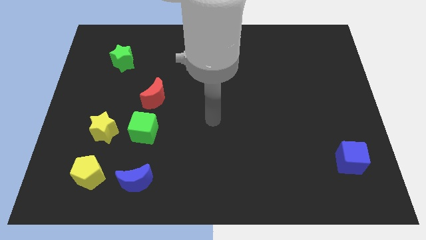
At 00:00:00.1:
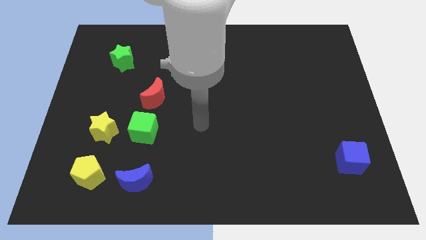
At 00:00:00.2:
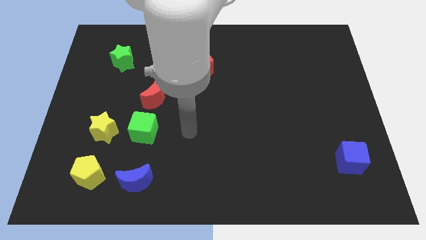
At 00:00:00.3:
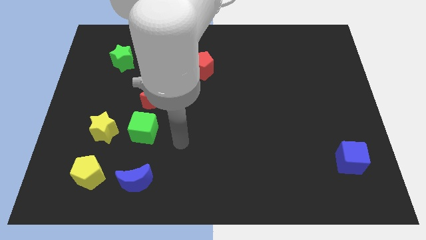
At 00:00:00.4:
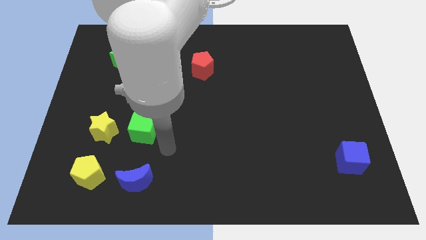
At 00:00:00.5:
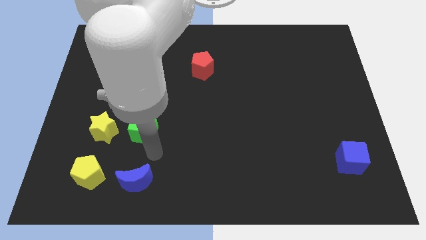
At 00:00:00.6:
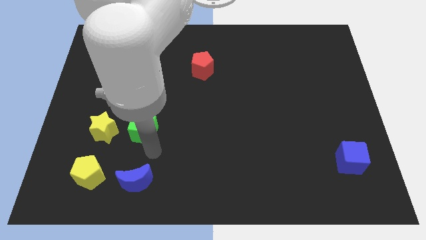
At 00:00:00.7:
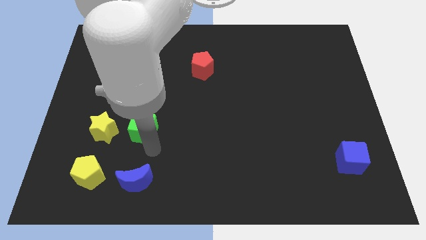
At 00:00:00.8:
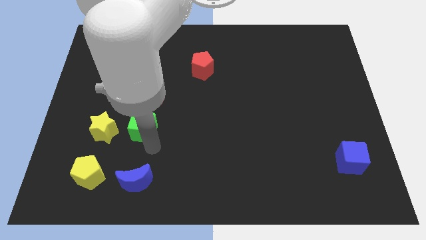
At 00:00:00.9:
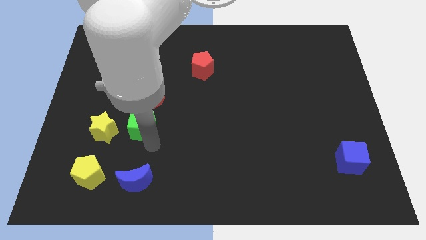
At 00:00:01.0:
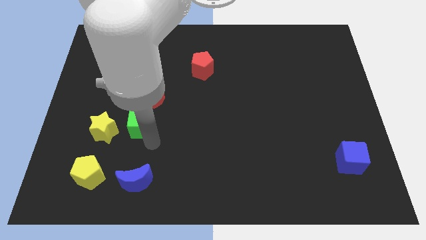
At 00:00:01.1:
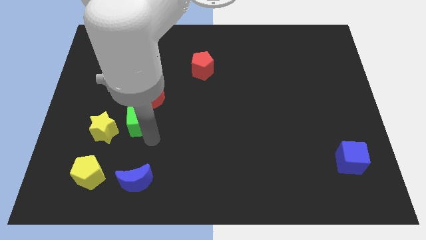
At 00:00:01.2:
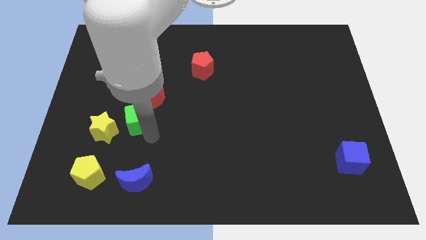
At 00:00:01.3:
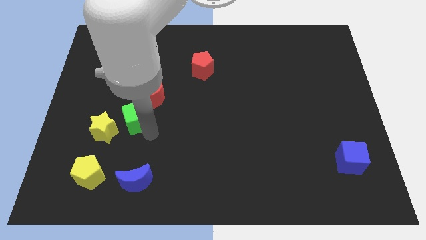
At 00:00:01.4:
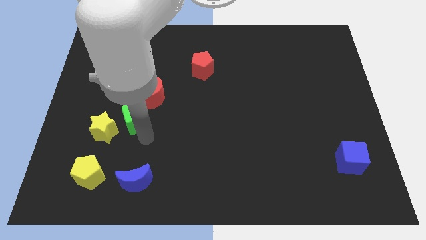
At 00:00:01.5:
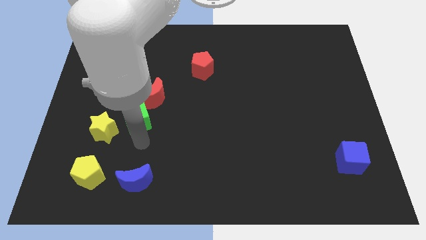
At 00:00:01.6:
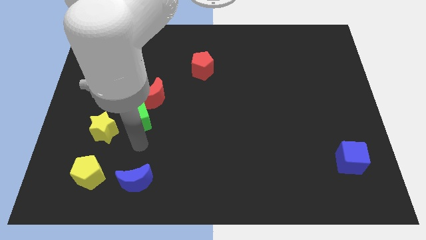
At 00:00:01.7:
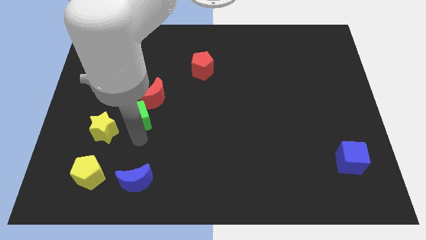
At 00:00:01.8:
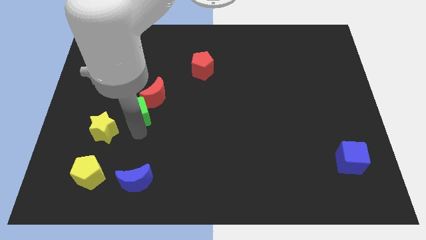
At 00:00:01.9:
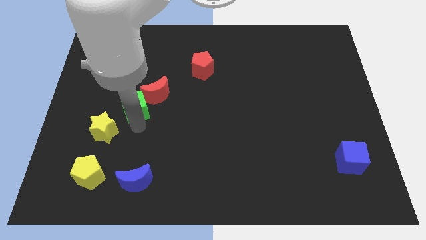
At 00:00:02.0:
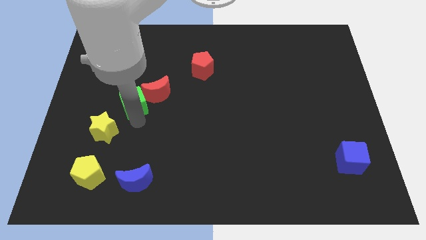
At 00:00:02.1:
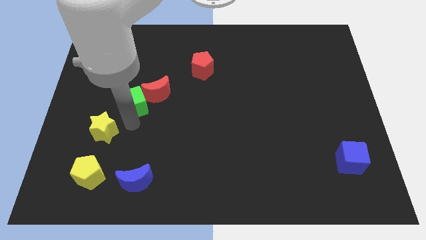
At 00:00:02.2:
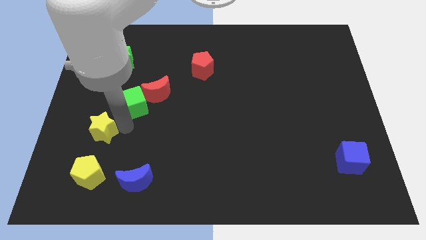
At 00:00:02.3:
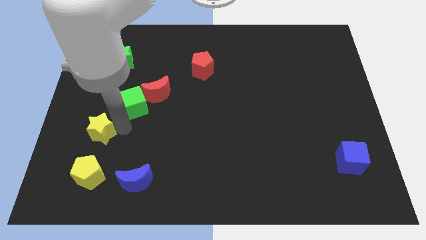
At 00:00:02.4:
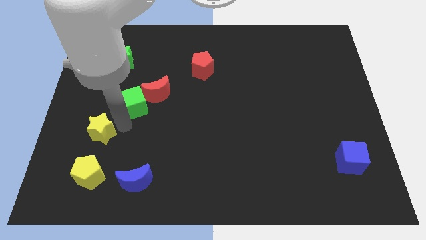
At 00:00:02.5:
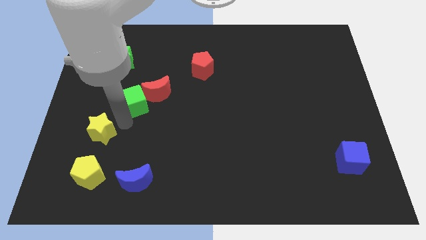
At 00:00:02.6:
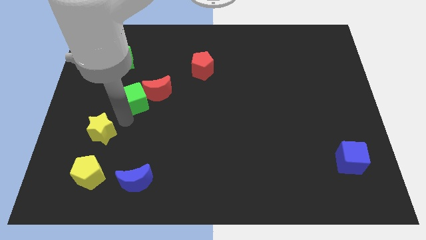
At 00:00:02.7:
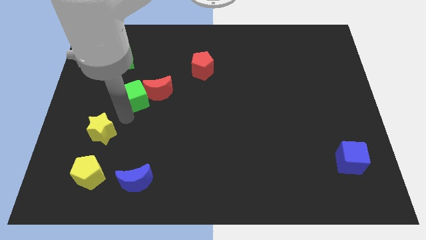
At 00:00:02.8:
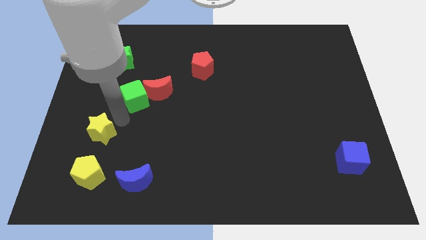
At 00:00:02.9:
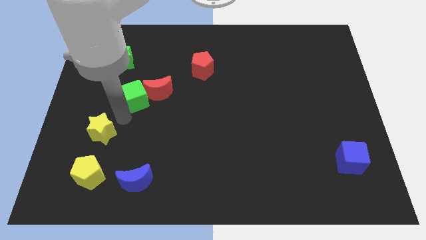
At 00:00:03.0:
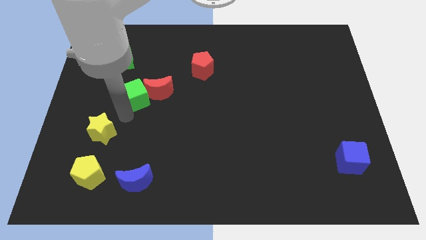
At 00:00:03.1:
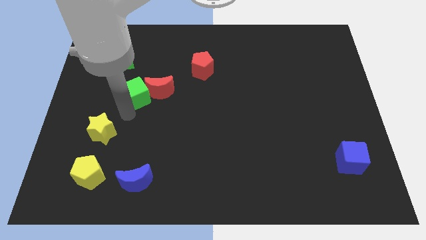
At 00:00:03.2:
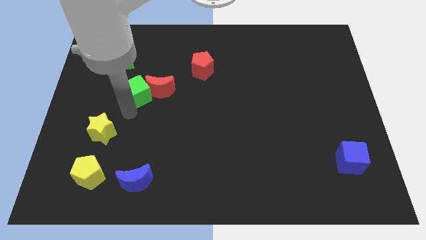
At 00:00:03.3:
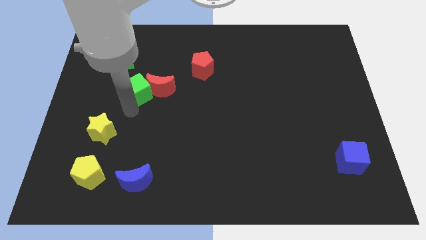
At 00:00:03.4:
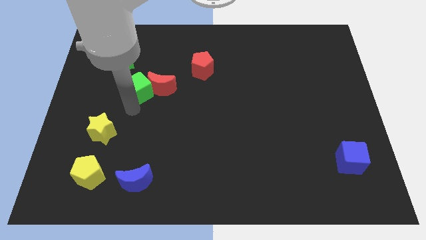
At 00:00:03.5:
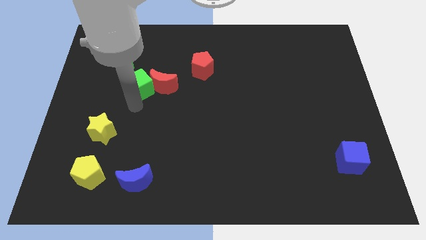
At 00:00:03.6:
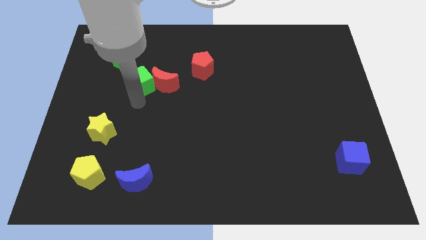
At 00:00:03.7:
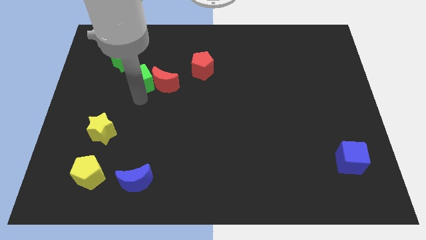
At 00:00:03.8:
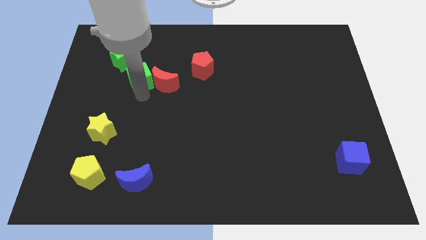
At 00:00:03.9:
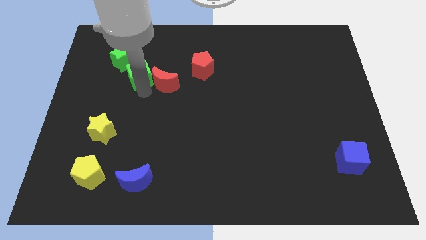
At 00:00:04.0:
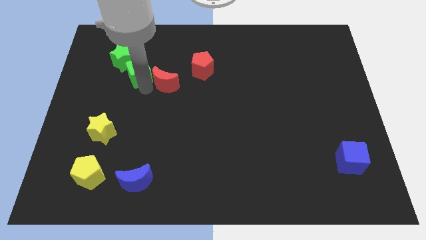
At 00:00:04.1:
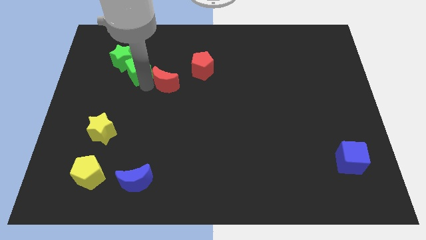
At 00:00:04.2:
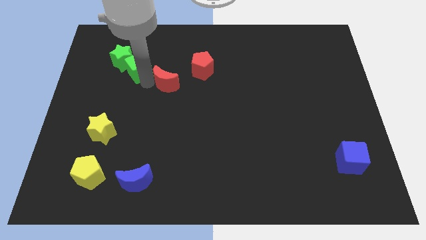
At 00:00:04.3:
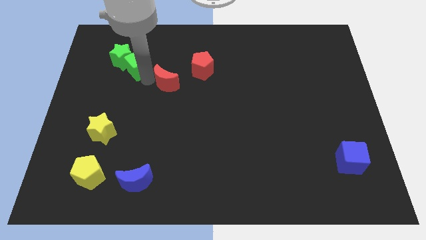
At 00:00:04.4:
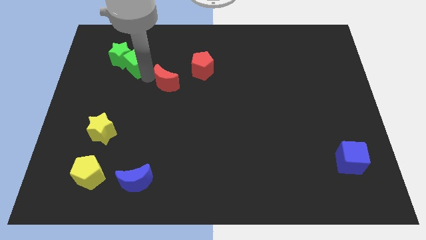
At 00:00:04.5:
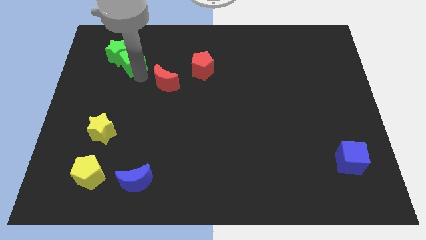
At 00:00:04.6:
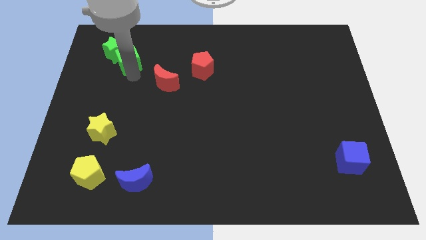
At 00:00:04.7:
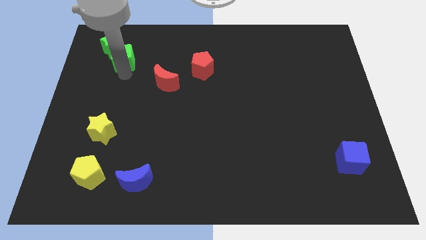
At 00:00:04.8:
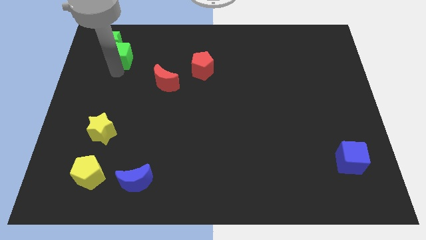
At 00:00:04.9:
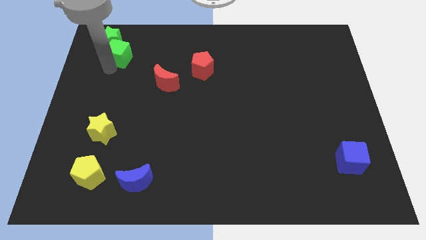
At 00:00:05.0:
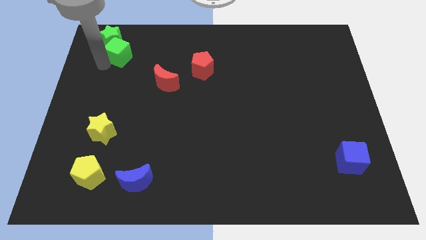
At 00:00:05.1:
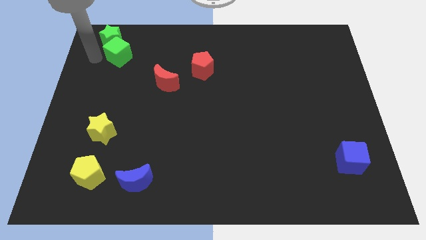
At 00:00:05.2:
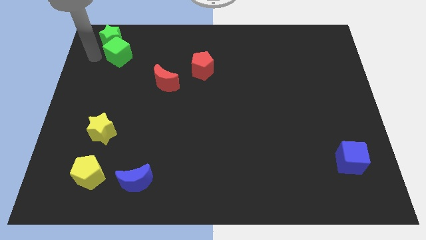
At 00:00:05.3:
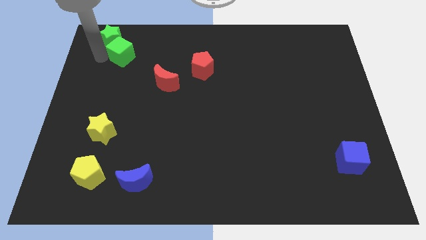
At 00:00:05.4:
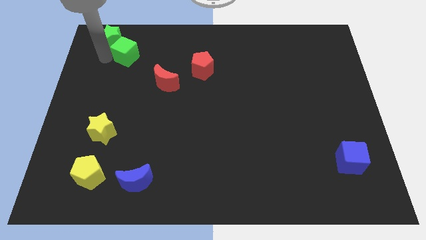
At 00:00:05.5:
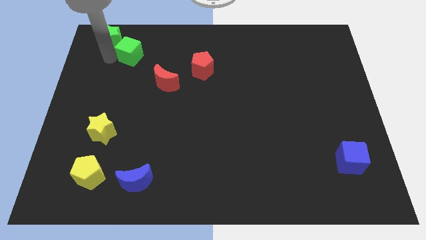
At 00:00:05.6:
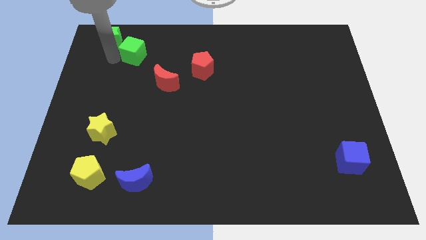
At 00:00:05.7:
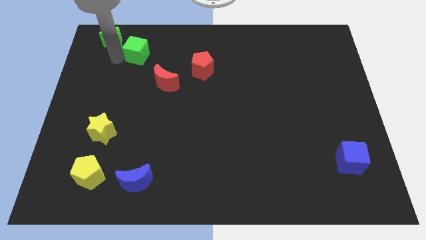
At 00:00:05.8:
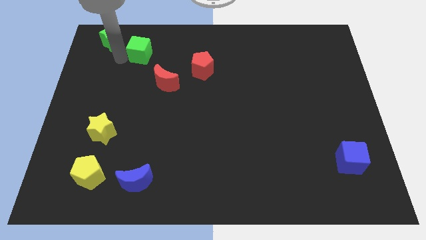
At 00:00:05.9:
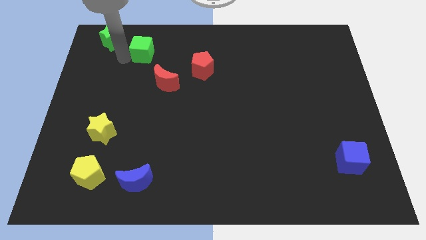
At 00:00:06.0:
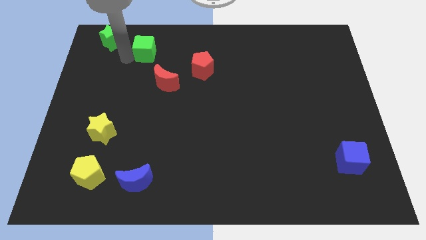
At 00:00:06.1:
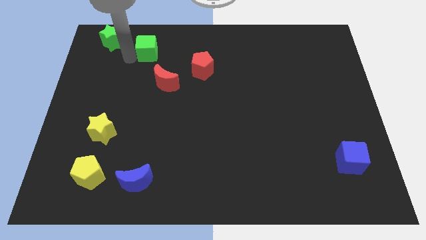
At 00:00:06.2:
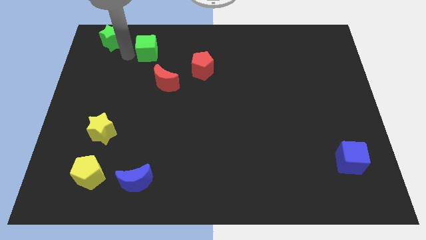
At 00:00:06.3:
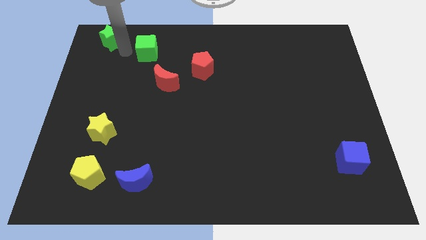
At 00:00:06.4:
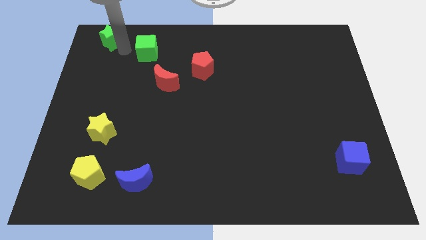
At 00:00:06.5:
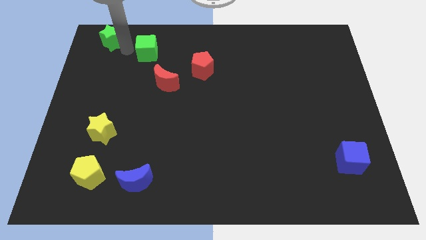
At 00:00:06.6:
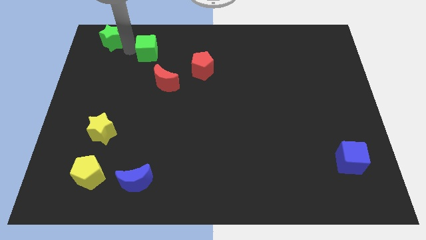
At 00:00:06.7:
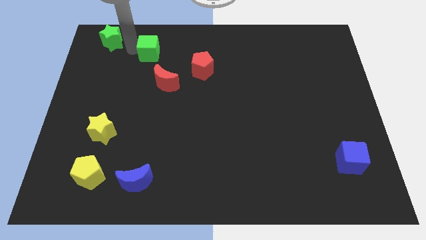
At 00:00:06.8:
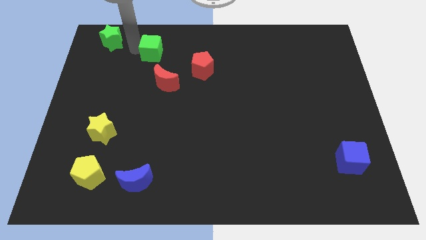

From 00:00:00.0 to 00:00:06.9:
move the green cube to the top of the red moon

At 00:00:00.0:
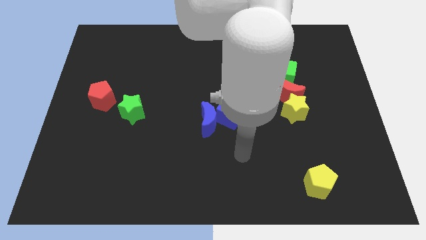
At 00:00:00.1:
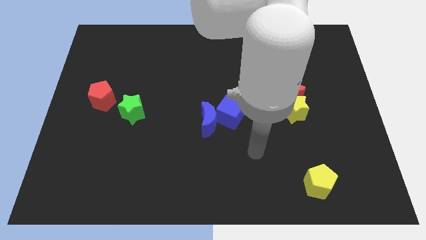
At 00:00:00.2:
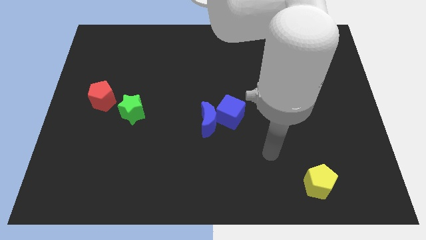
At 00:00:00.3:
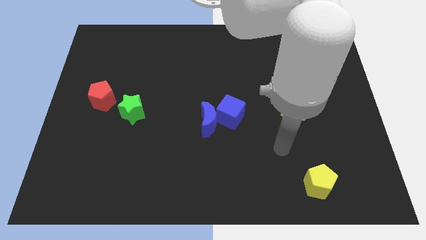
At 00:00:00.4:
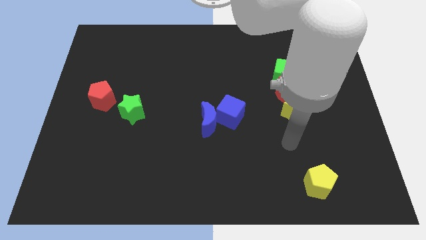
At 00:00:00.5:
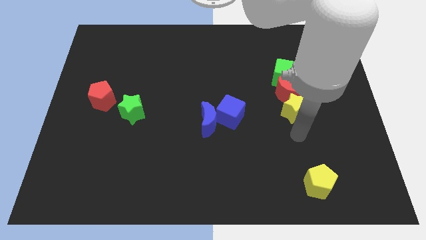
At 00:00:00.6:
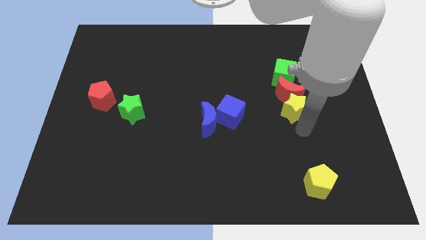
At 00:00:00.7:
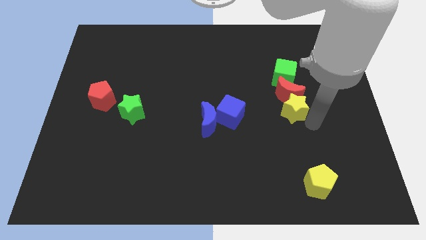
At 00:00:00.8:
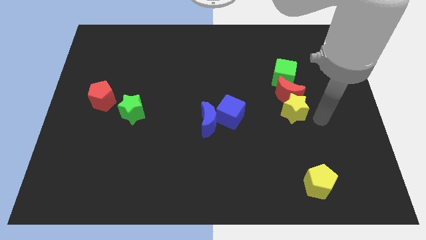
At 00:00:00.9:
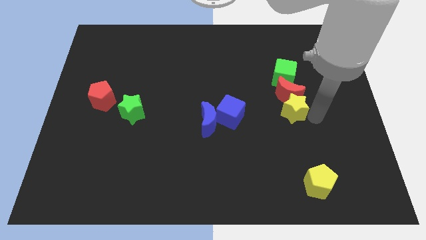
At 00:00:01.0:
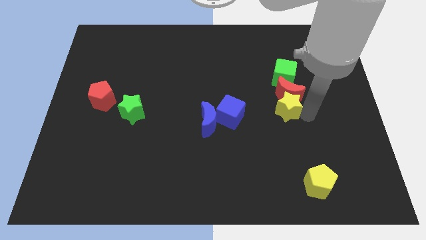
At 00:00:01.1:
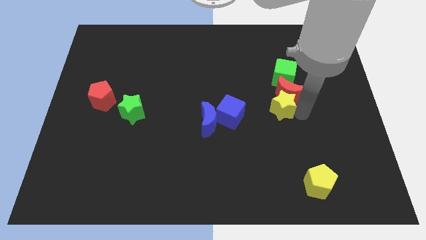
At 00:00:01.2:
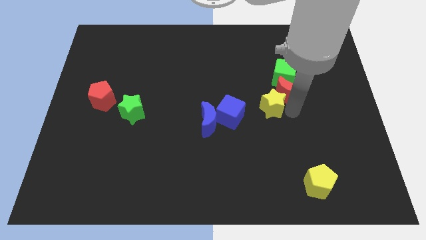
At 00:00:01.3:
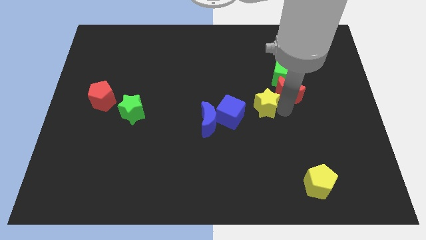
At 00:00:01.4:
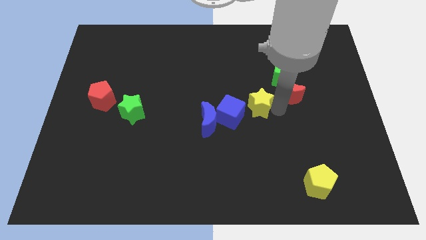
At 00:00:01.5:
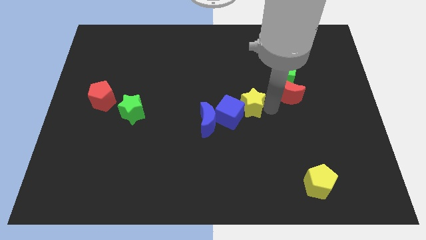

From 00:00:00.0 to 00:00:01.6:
put the yellow star to the top right side of the blue moon
